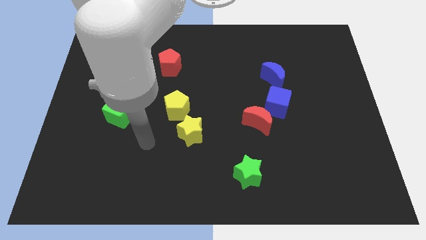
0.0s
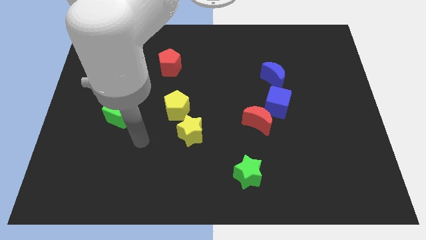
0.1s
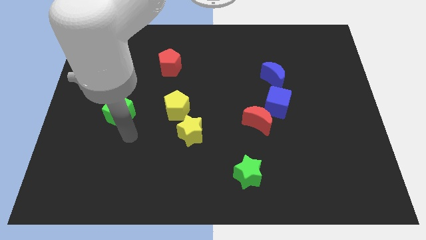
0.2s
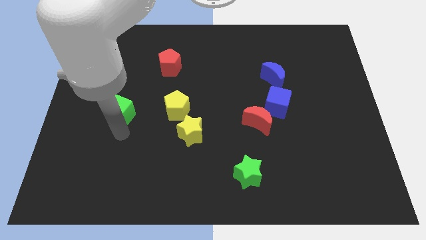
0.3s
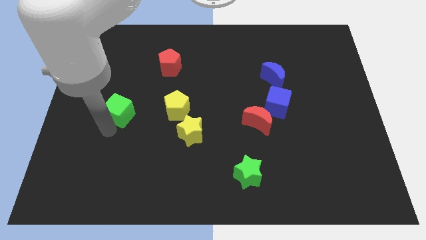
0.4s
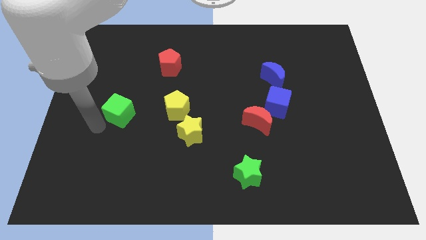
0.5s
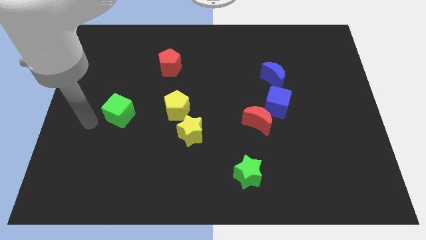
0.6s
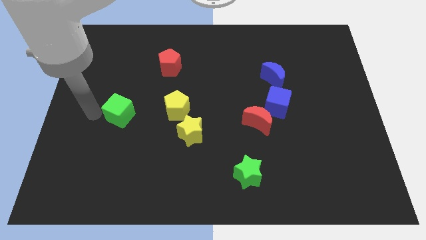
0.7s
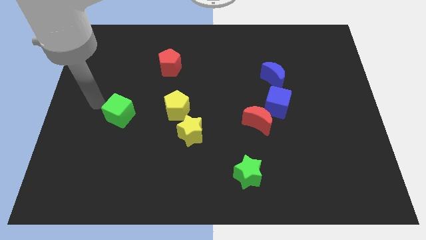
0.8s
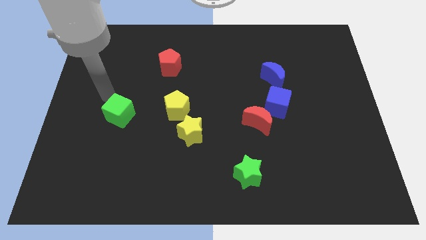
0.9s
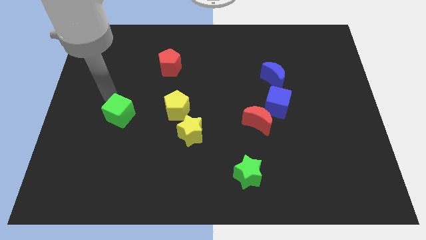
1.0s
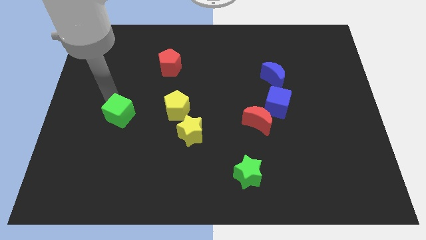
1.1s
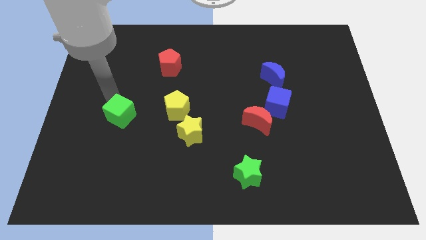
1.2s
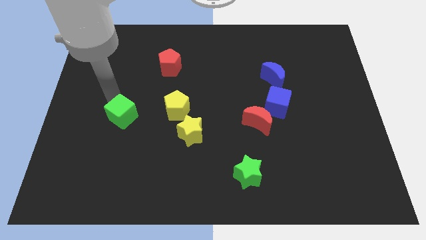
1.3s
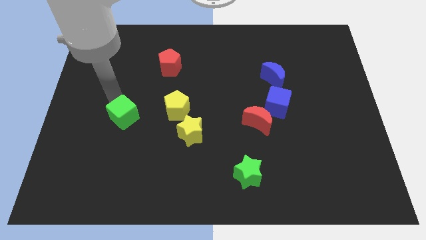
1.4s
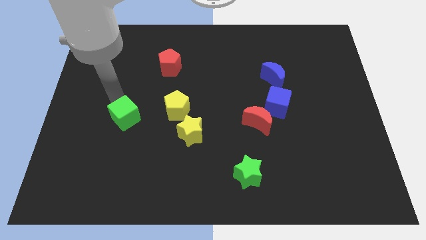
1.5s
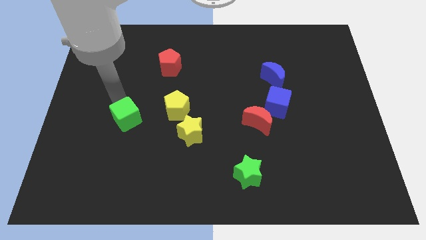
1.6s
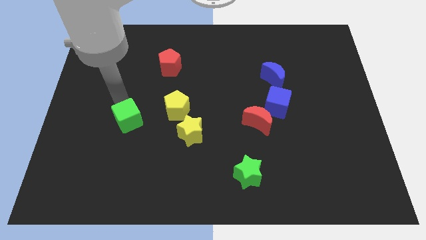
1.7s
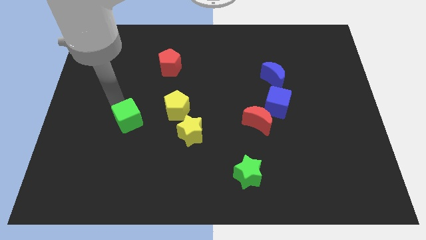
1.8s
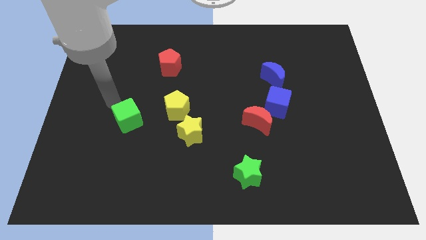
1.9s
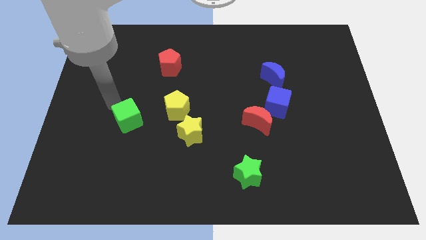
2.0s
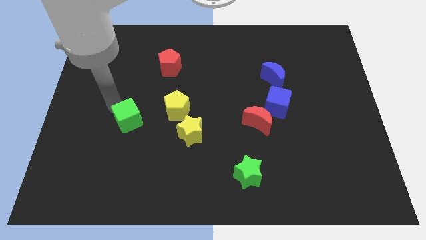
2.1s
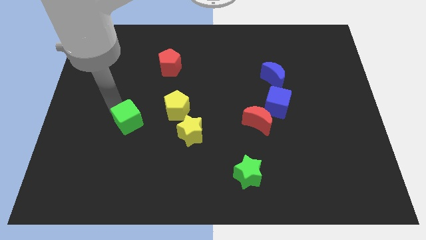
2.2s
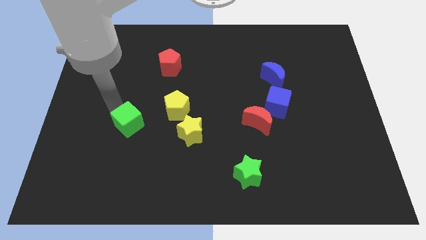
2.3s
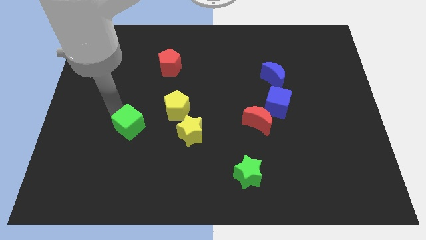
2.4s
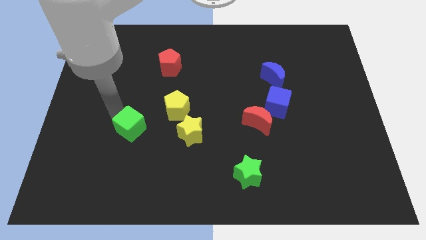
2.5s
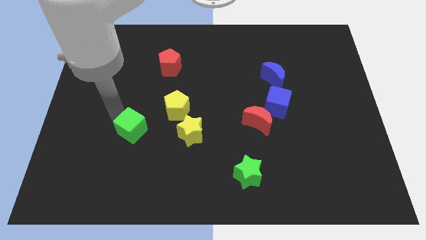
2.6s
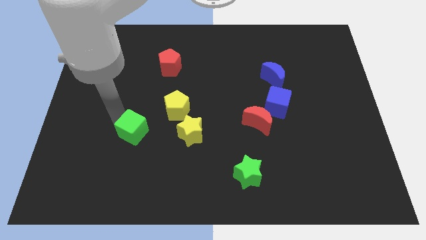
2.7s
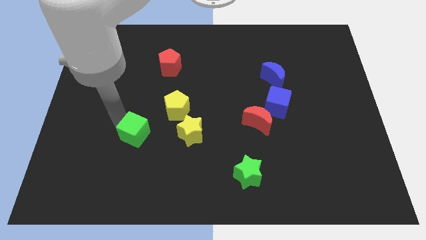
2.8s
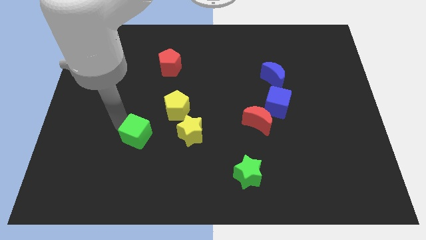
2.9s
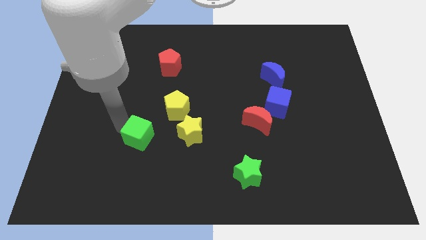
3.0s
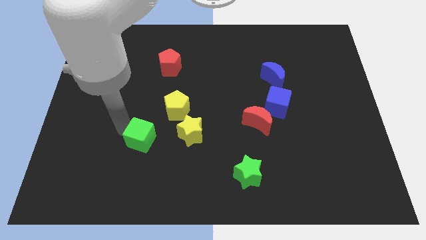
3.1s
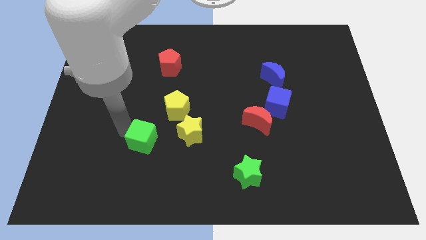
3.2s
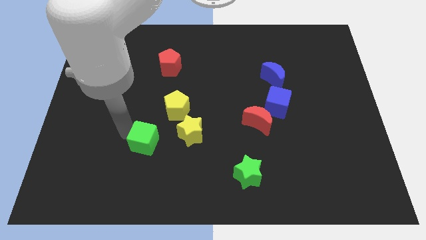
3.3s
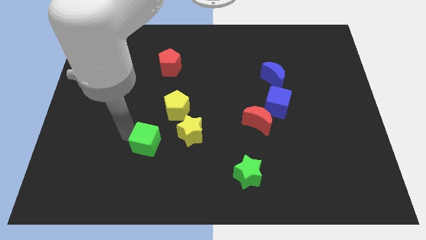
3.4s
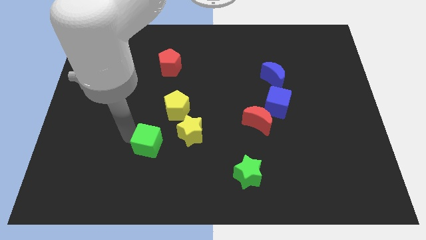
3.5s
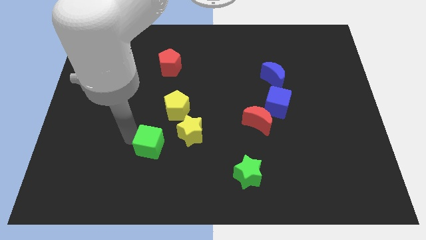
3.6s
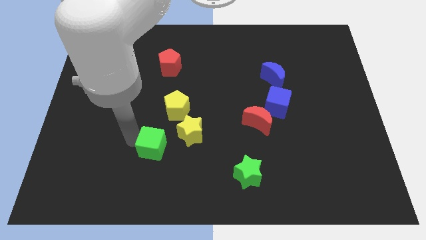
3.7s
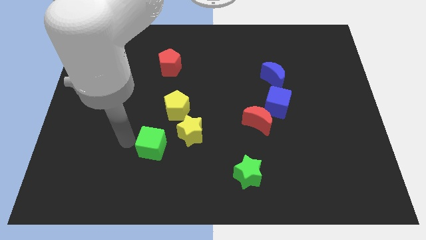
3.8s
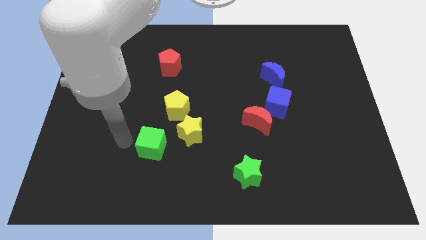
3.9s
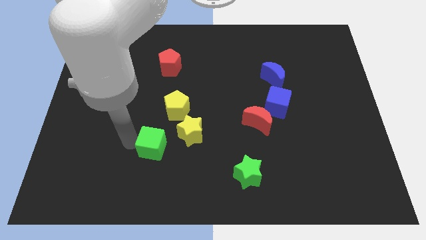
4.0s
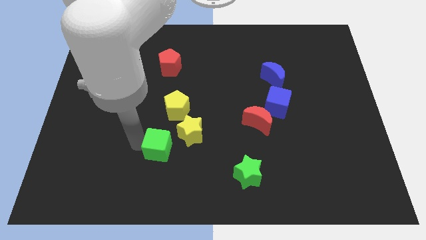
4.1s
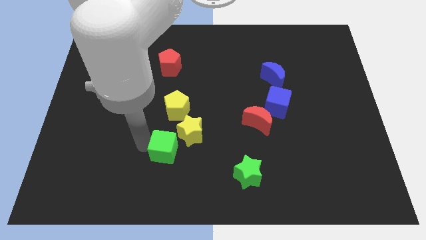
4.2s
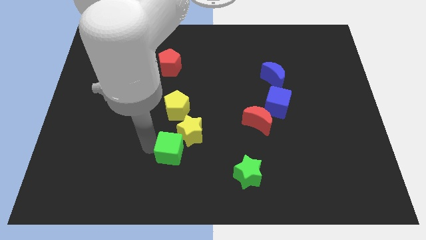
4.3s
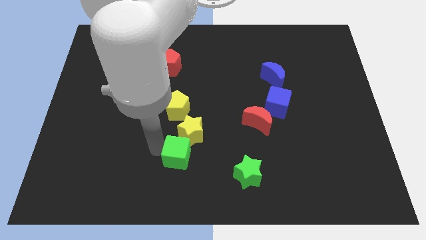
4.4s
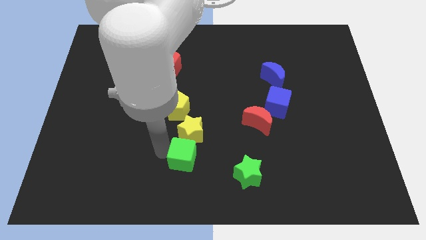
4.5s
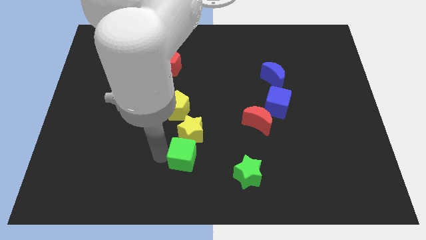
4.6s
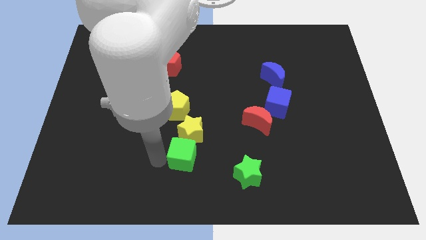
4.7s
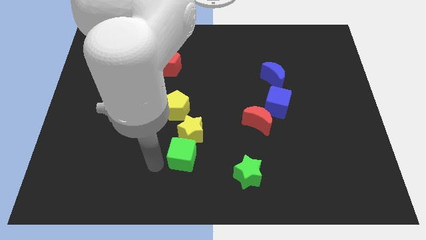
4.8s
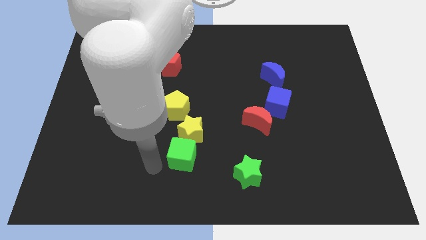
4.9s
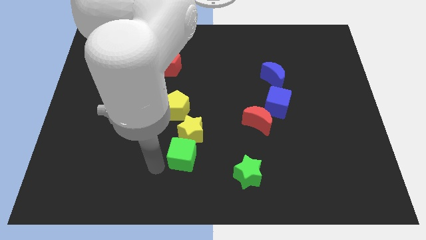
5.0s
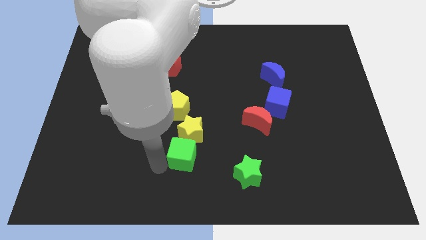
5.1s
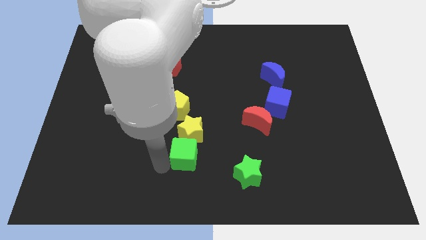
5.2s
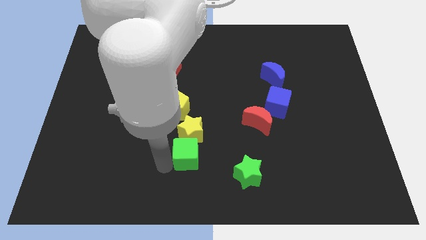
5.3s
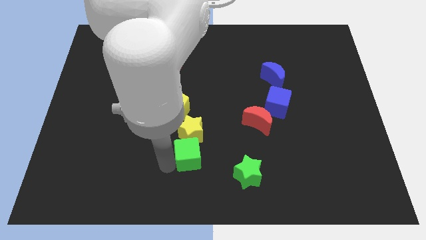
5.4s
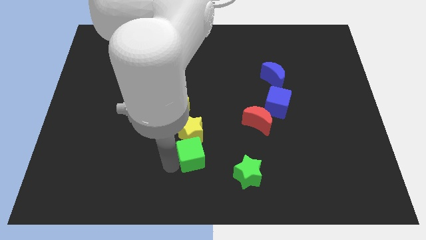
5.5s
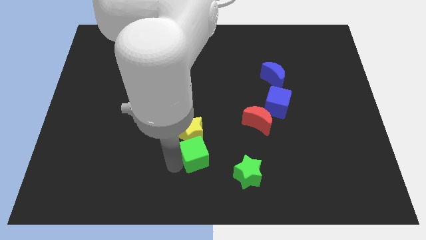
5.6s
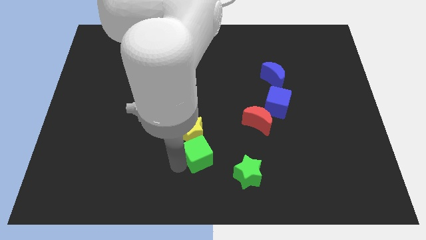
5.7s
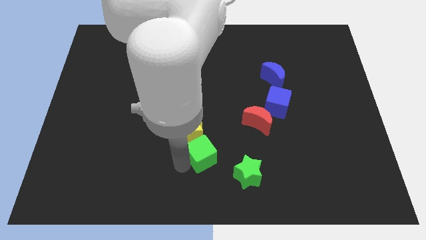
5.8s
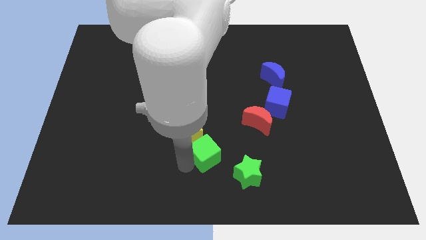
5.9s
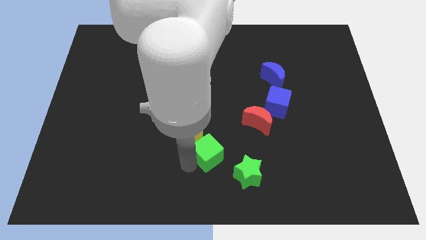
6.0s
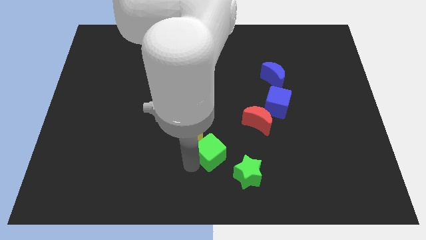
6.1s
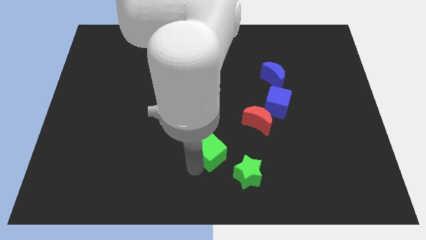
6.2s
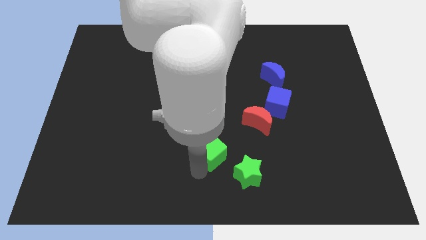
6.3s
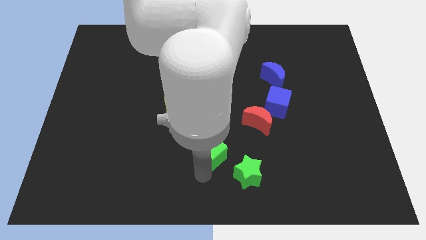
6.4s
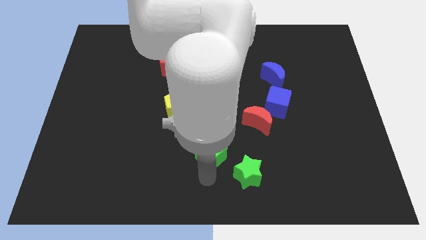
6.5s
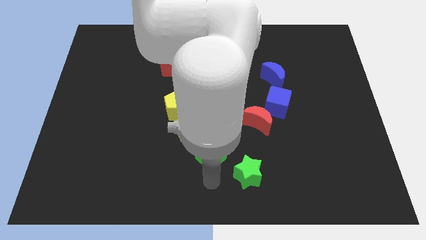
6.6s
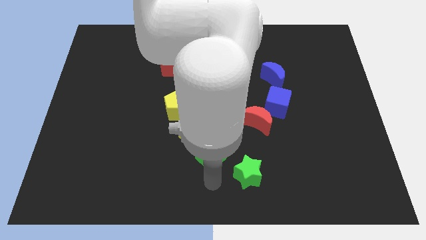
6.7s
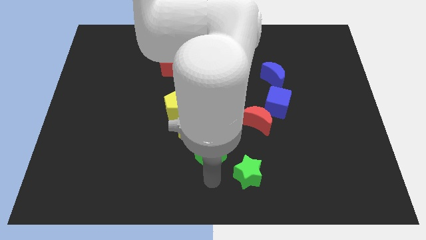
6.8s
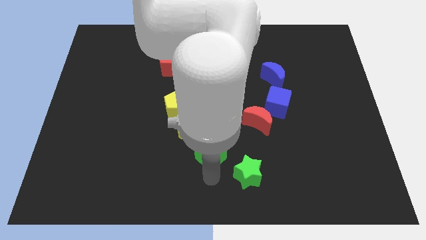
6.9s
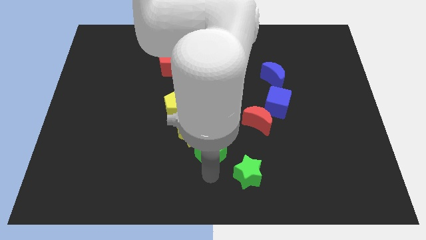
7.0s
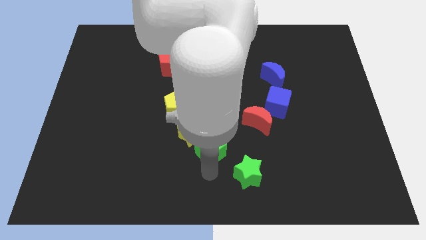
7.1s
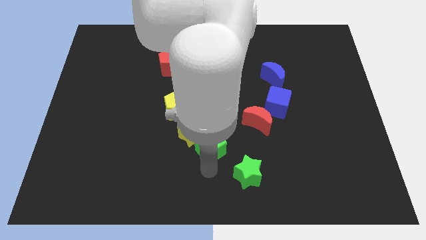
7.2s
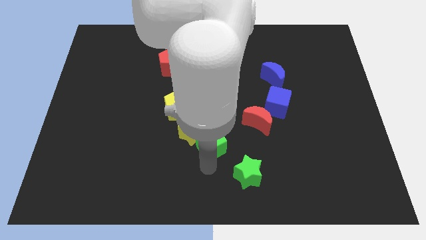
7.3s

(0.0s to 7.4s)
slide the green cube diagonally down and to the right of the yellow pentagon

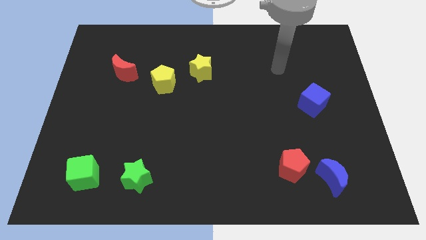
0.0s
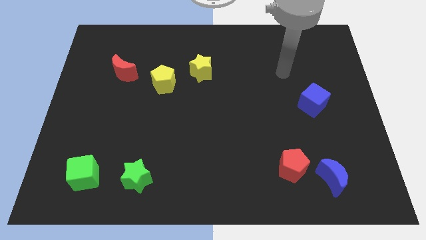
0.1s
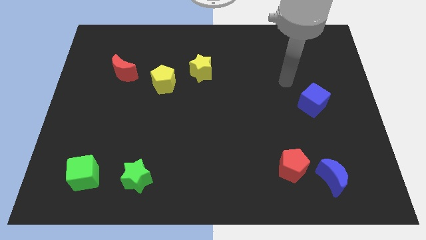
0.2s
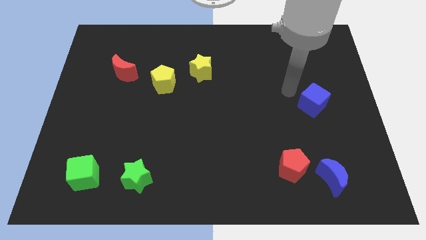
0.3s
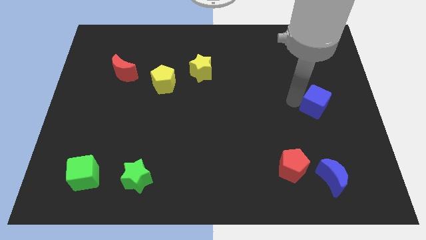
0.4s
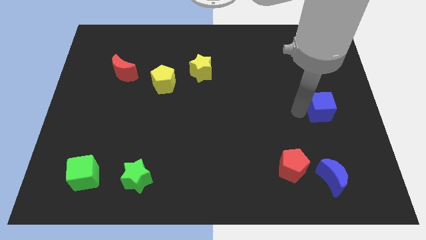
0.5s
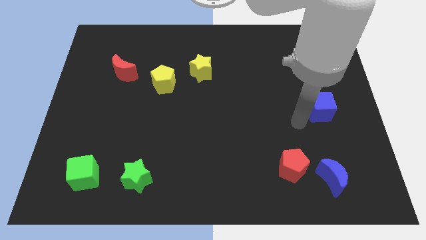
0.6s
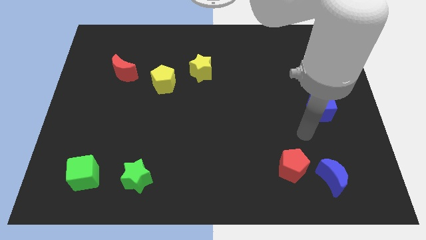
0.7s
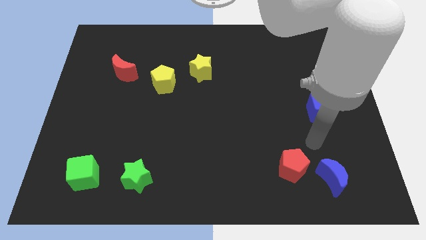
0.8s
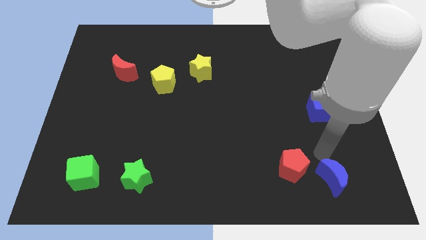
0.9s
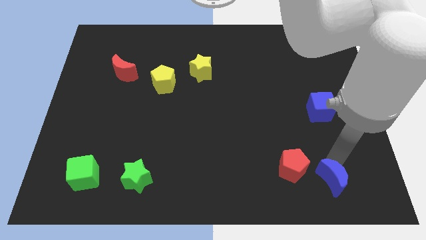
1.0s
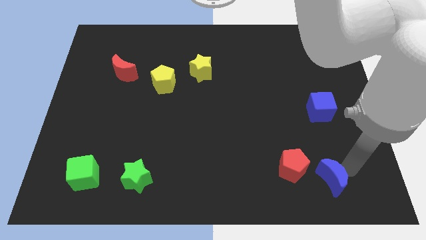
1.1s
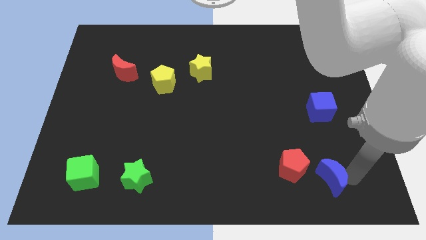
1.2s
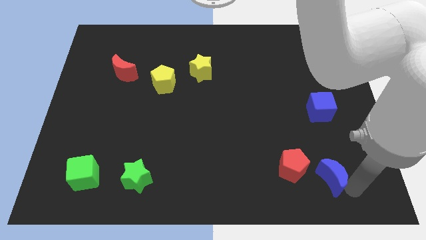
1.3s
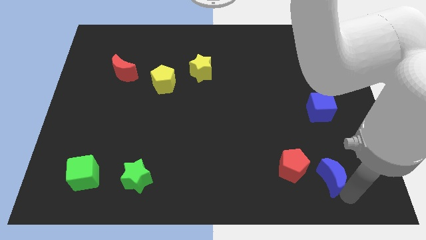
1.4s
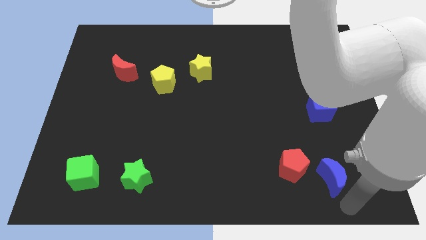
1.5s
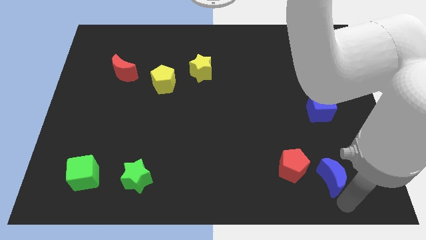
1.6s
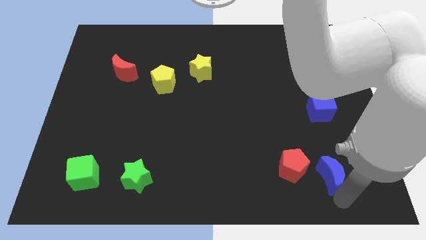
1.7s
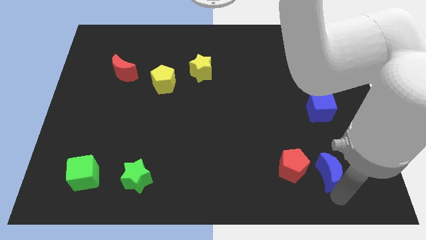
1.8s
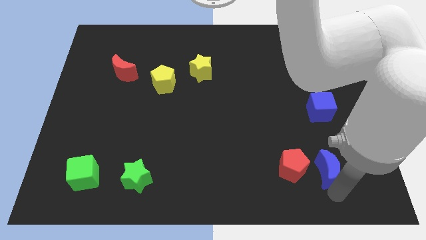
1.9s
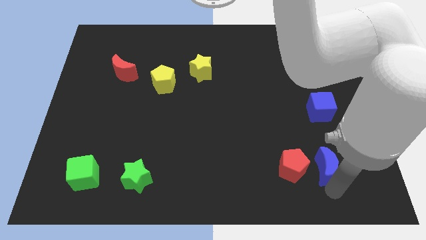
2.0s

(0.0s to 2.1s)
move the blue moon to the top right side of the red pentagon
